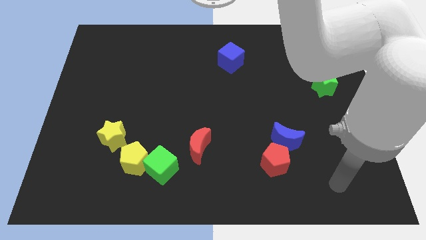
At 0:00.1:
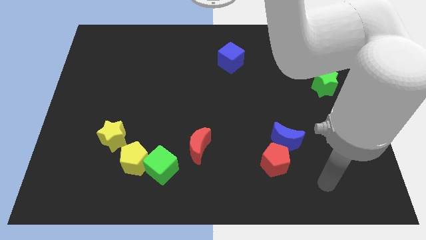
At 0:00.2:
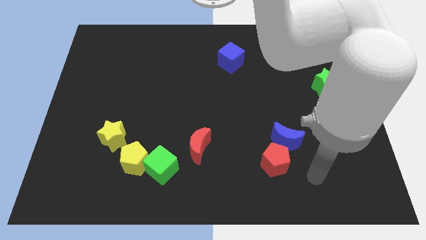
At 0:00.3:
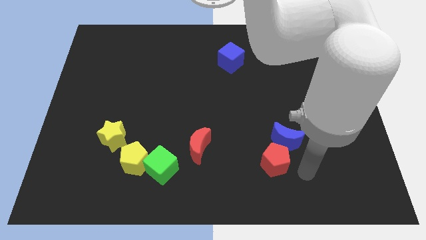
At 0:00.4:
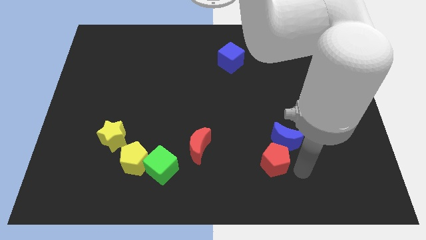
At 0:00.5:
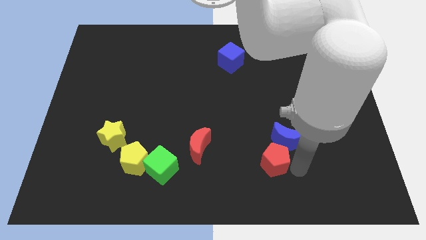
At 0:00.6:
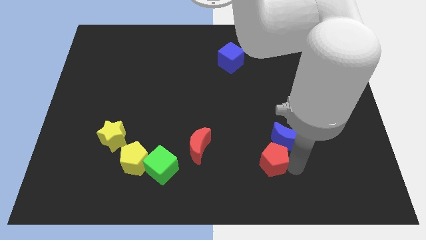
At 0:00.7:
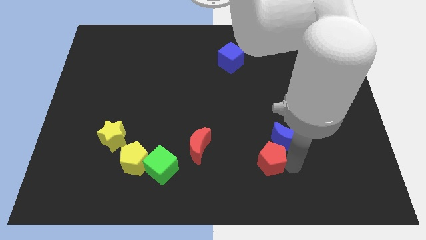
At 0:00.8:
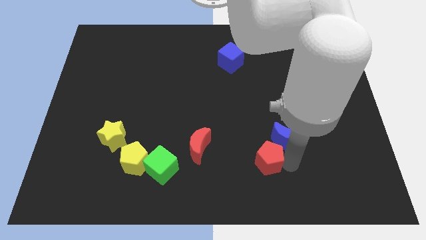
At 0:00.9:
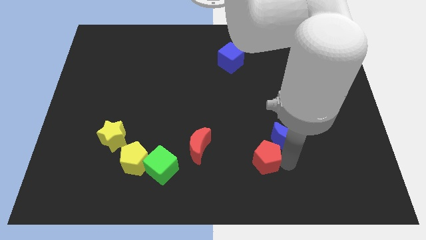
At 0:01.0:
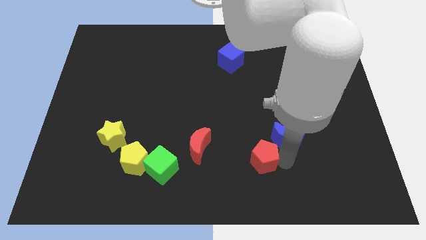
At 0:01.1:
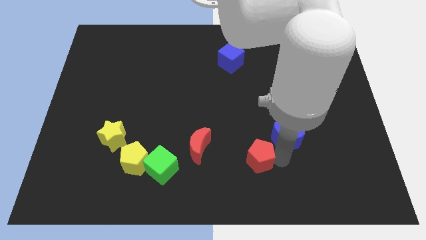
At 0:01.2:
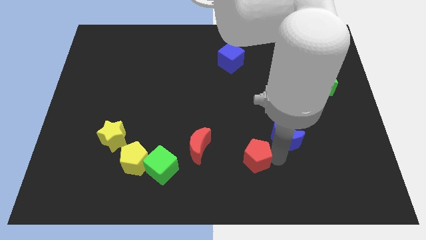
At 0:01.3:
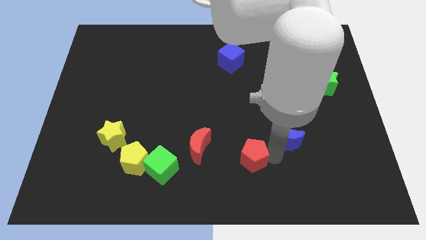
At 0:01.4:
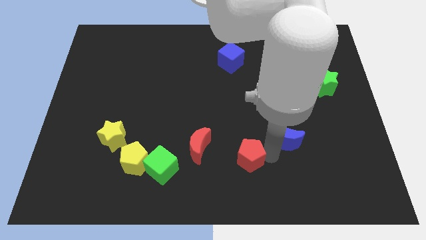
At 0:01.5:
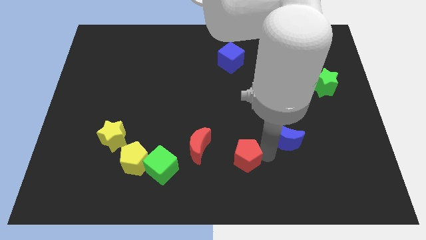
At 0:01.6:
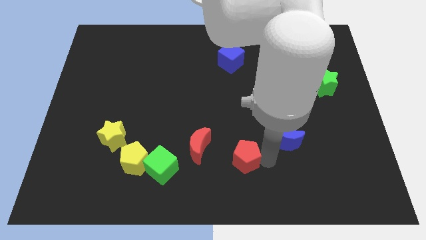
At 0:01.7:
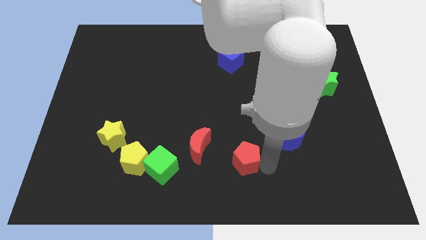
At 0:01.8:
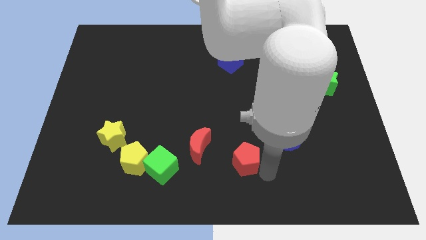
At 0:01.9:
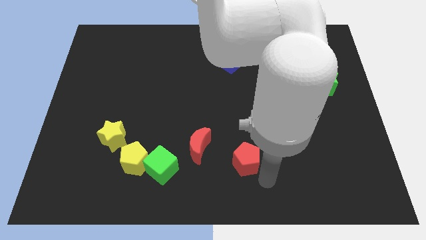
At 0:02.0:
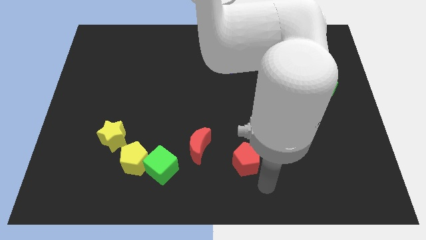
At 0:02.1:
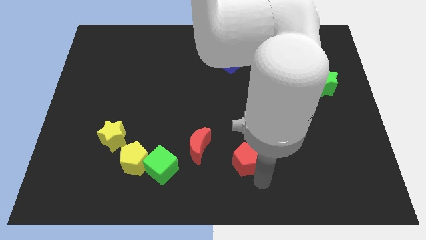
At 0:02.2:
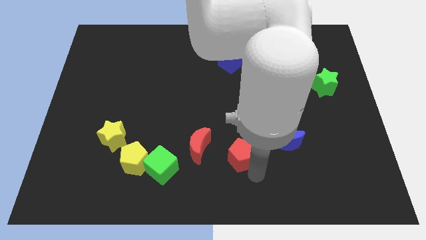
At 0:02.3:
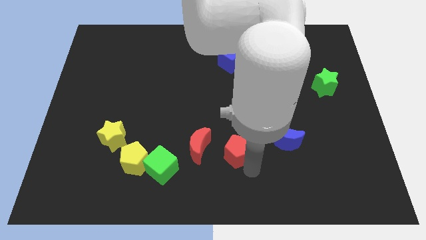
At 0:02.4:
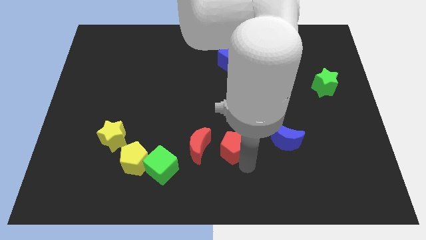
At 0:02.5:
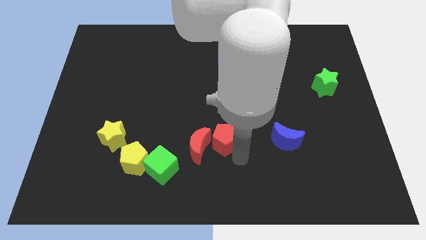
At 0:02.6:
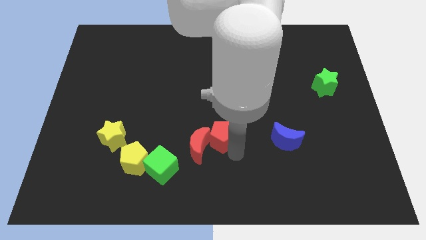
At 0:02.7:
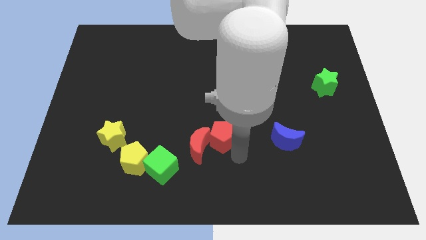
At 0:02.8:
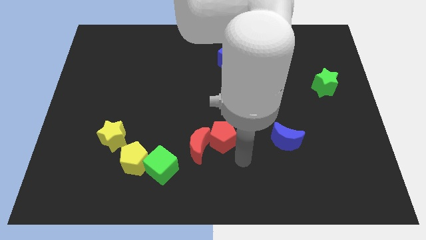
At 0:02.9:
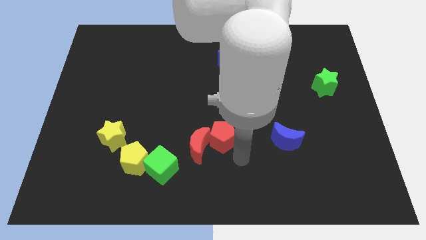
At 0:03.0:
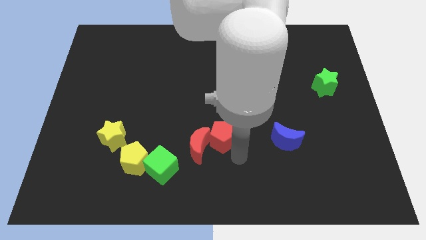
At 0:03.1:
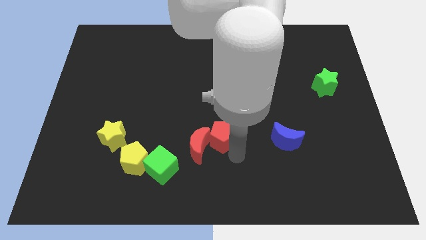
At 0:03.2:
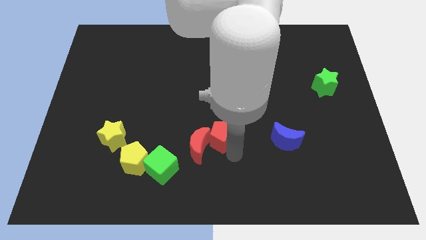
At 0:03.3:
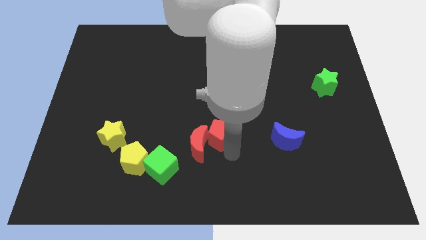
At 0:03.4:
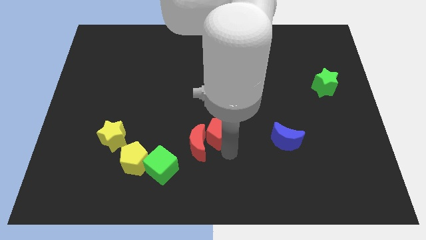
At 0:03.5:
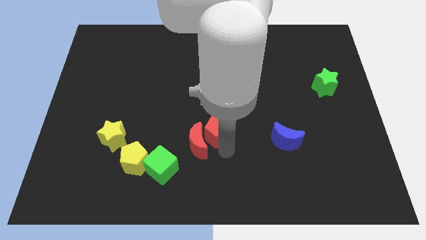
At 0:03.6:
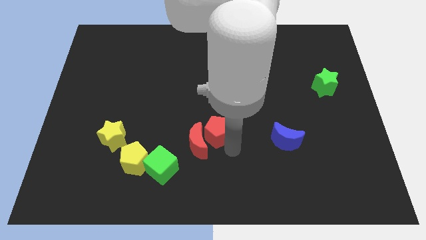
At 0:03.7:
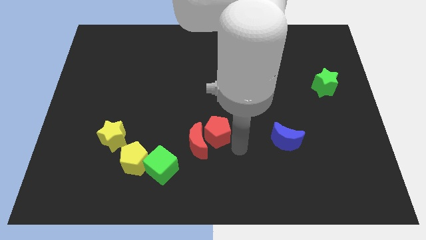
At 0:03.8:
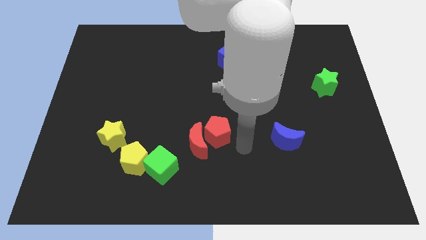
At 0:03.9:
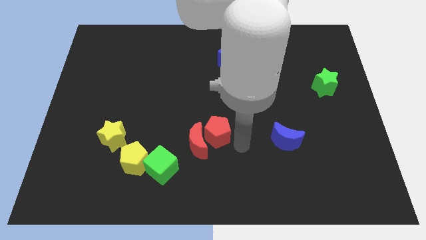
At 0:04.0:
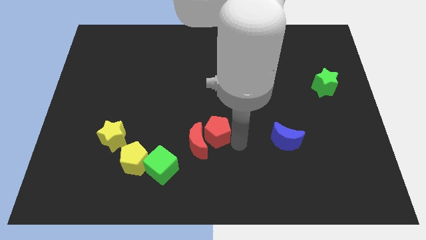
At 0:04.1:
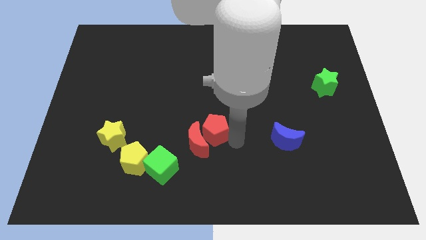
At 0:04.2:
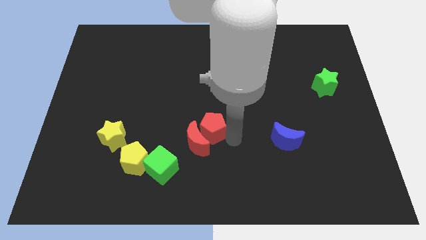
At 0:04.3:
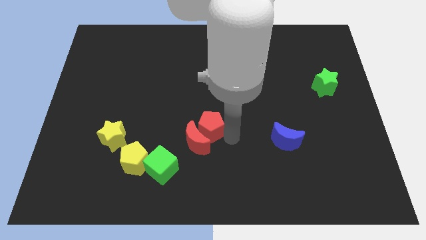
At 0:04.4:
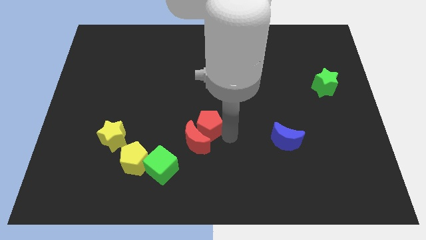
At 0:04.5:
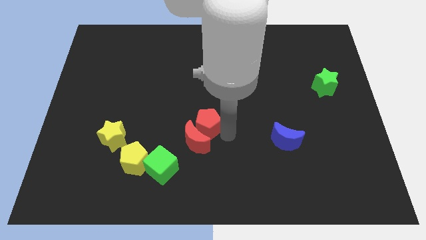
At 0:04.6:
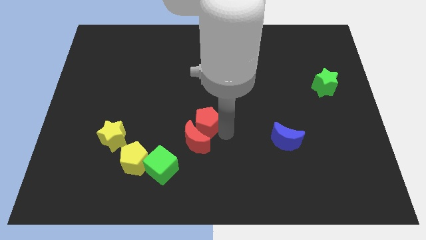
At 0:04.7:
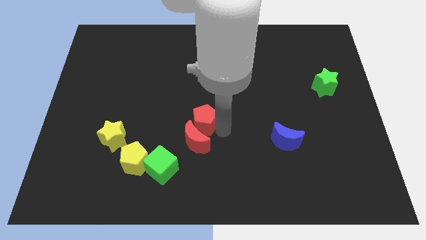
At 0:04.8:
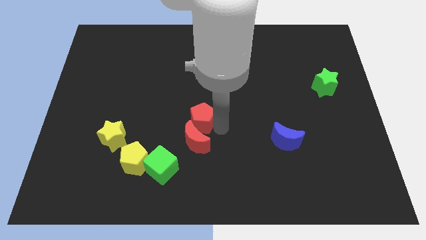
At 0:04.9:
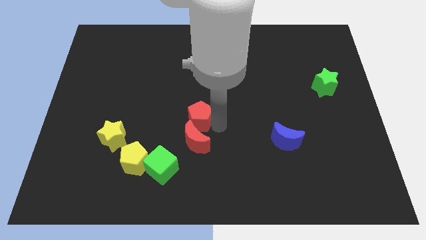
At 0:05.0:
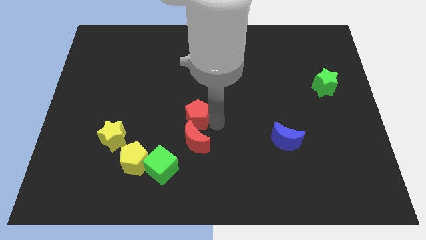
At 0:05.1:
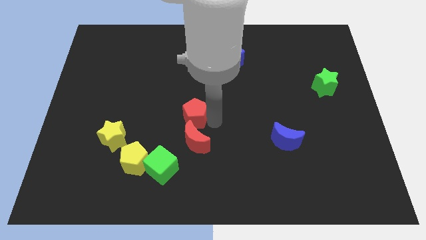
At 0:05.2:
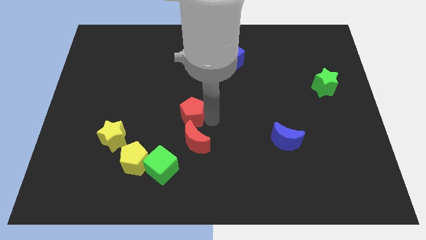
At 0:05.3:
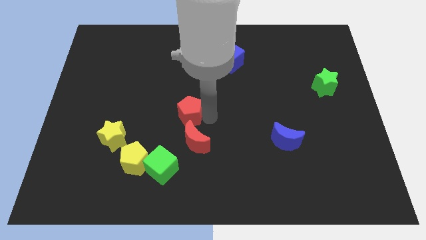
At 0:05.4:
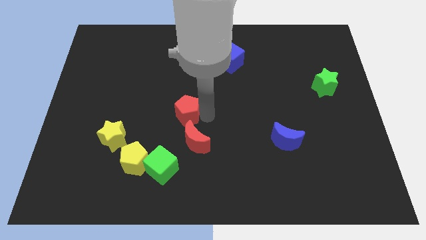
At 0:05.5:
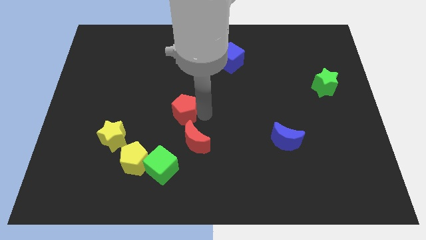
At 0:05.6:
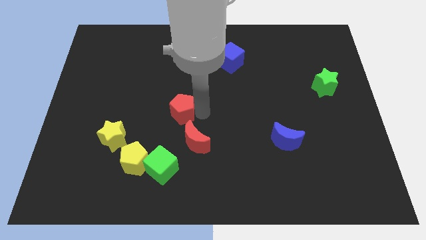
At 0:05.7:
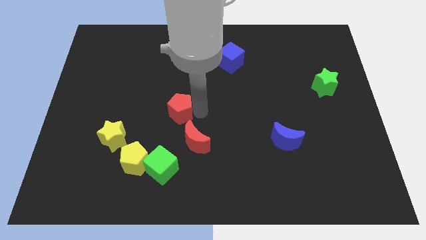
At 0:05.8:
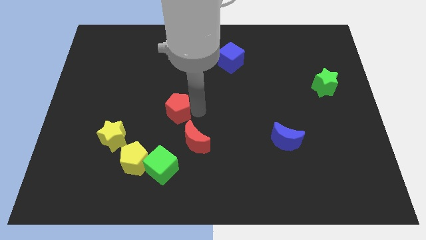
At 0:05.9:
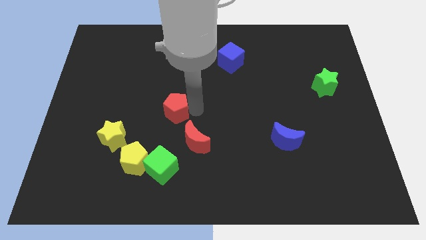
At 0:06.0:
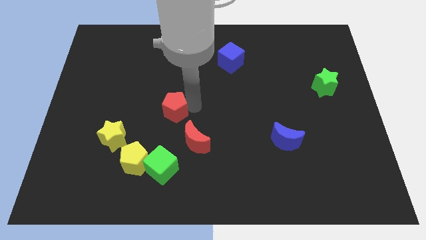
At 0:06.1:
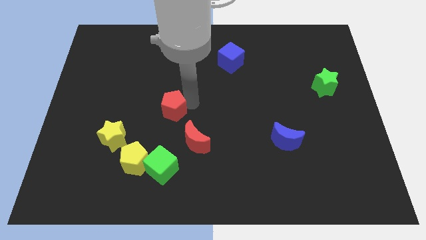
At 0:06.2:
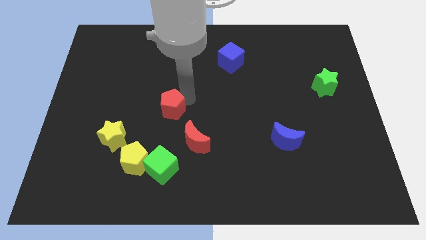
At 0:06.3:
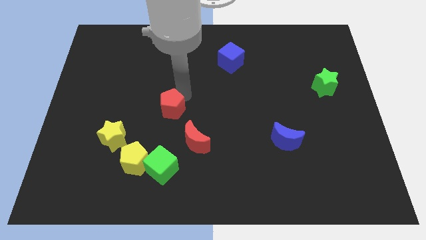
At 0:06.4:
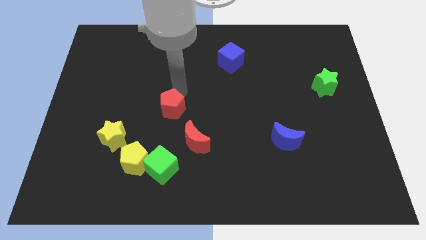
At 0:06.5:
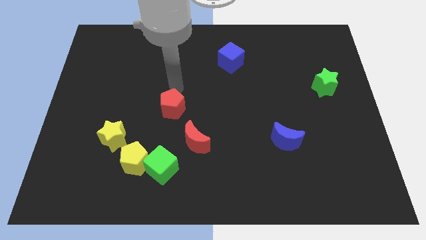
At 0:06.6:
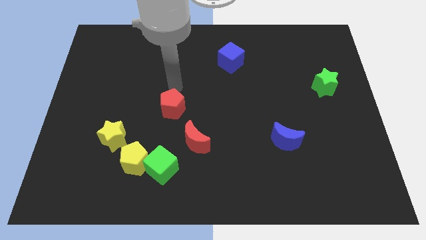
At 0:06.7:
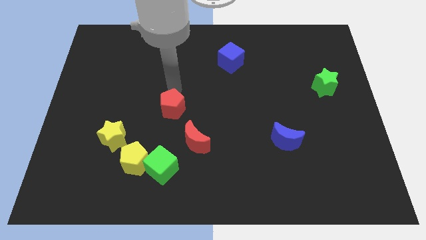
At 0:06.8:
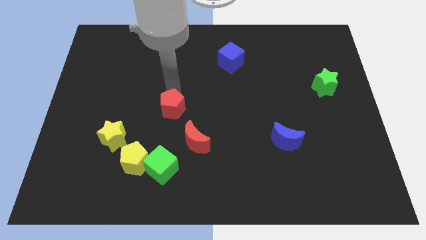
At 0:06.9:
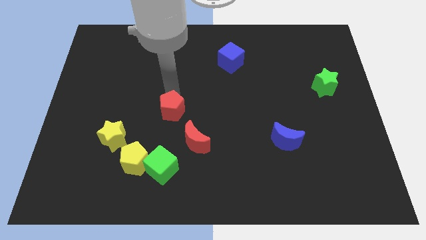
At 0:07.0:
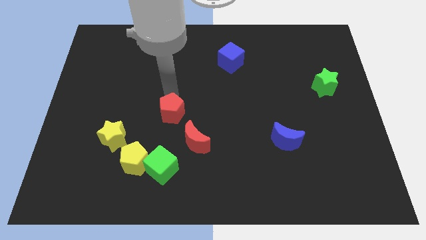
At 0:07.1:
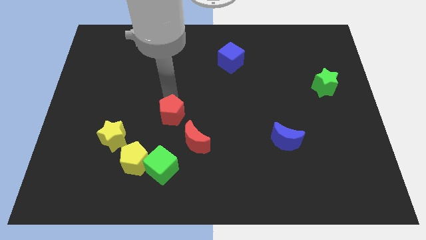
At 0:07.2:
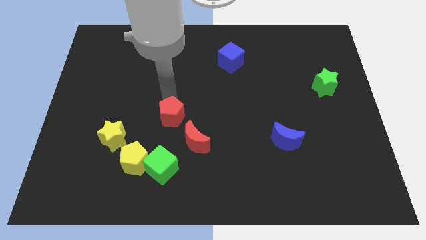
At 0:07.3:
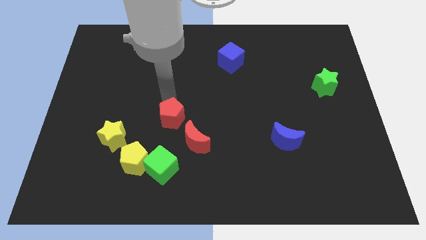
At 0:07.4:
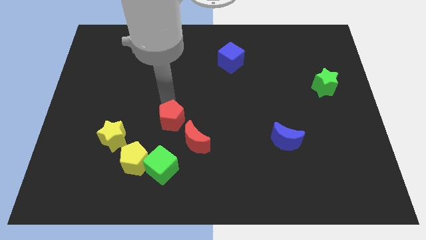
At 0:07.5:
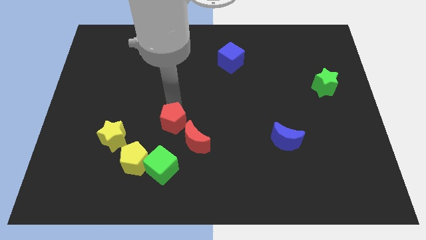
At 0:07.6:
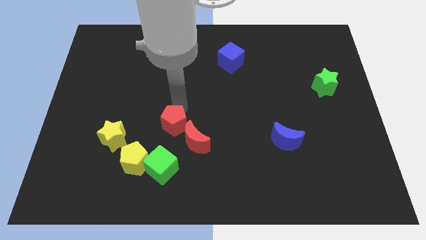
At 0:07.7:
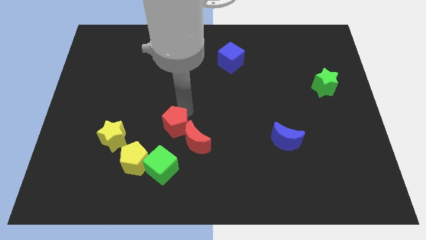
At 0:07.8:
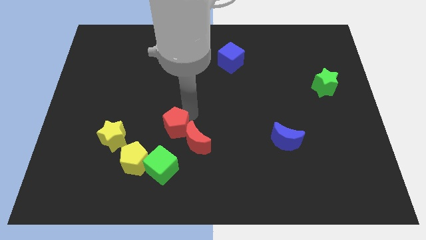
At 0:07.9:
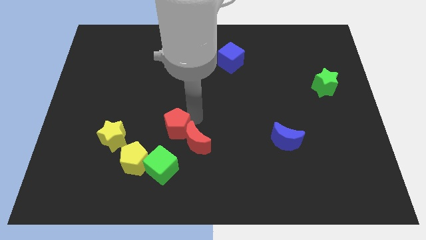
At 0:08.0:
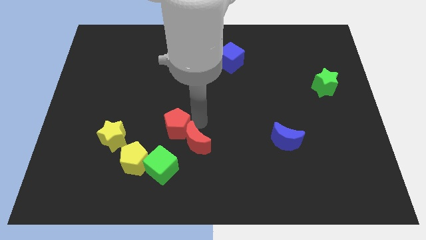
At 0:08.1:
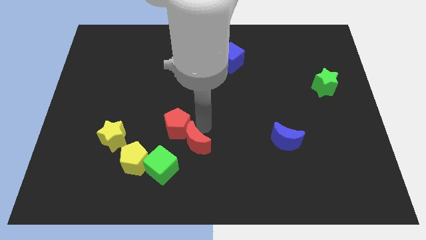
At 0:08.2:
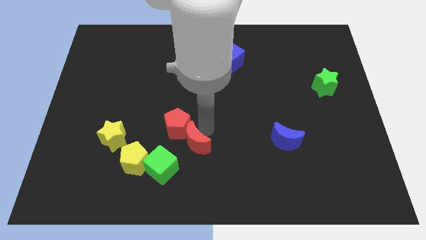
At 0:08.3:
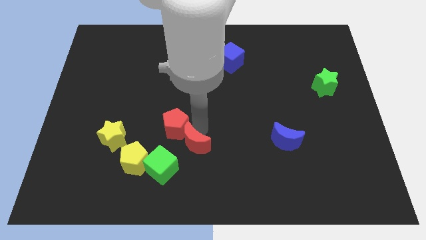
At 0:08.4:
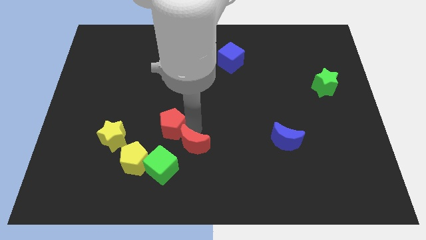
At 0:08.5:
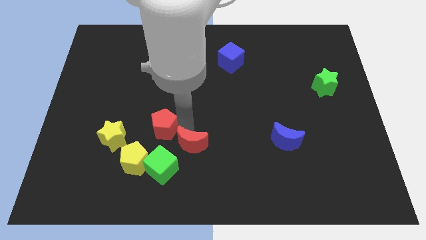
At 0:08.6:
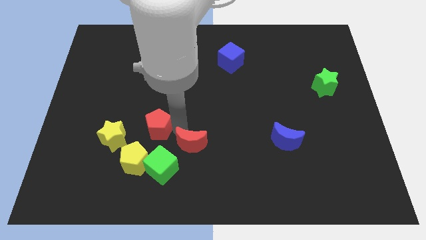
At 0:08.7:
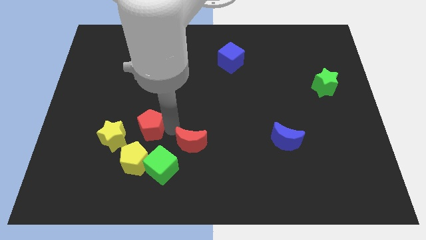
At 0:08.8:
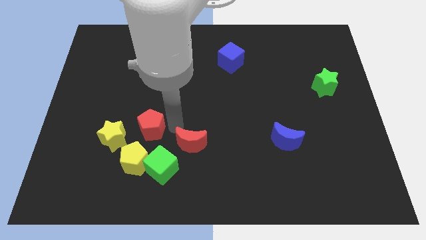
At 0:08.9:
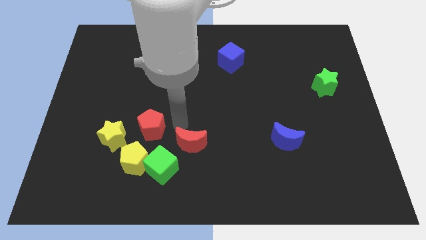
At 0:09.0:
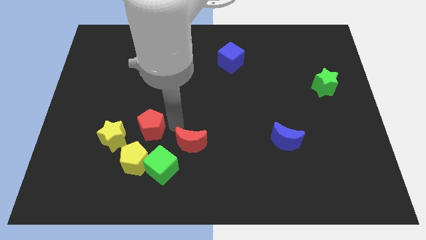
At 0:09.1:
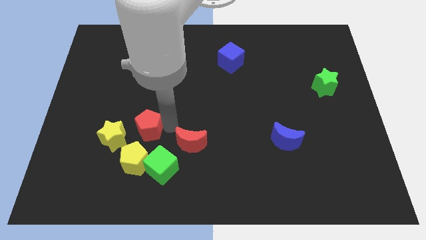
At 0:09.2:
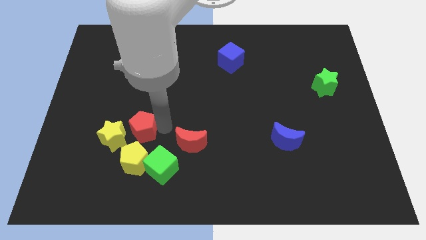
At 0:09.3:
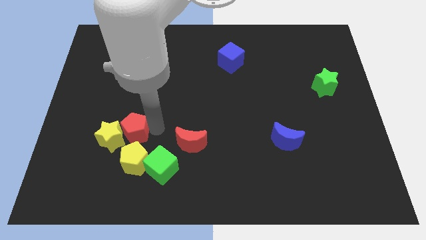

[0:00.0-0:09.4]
put the red pentagon to the yellow star
